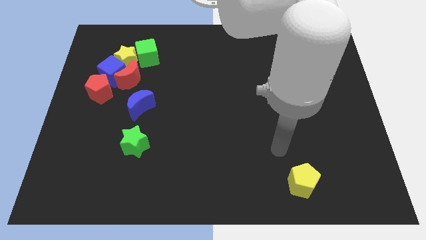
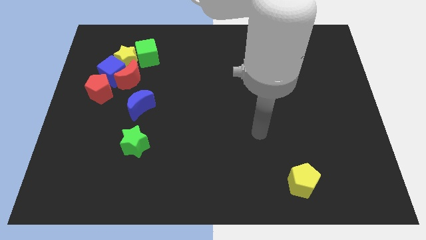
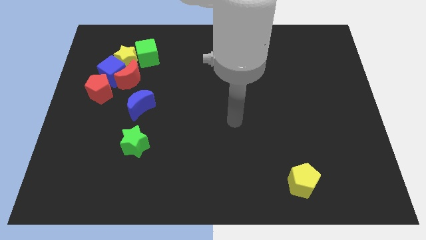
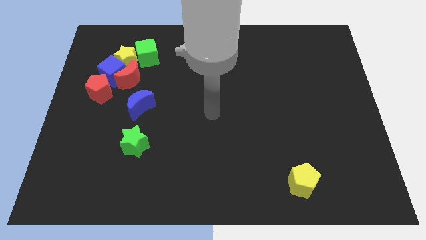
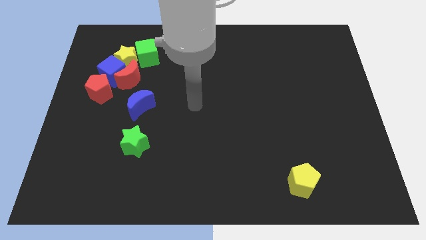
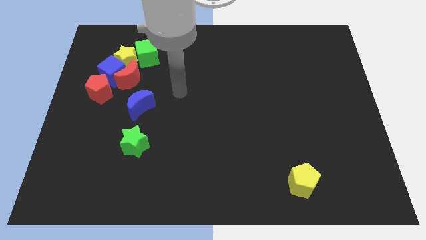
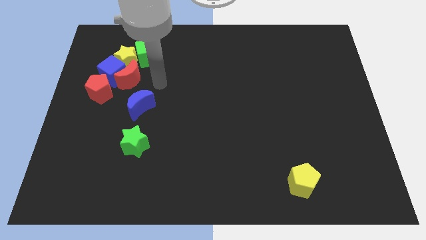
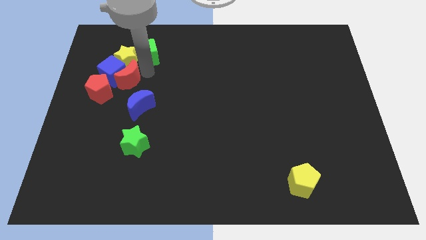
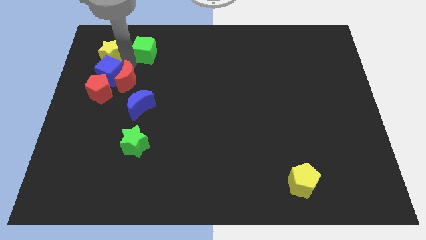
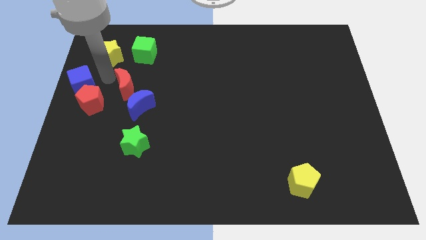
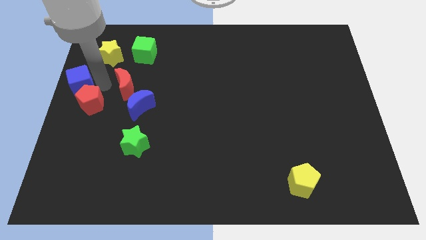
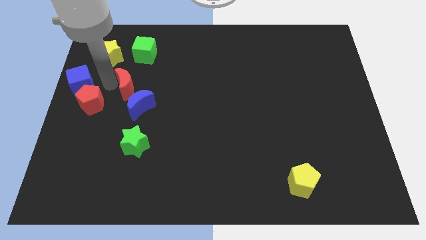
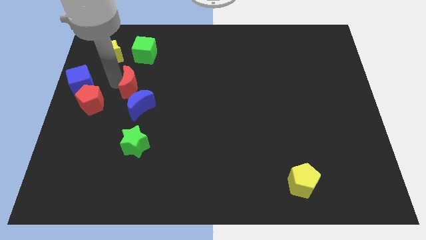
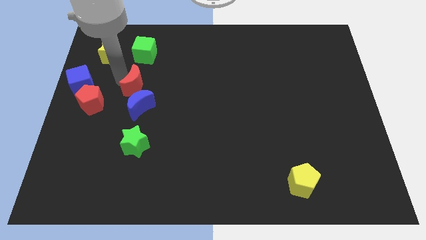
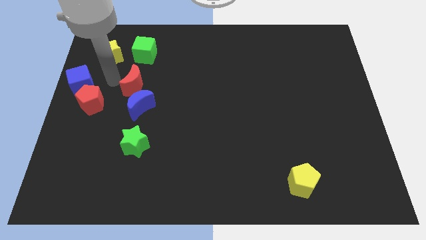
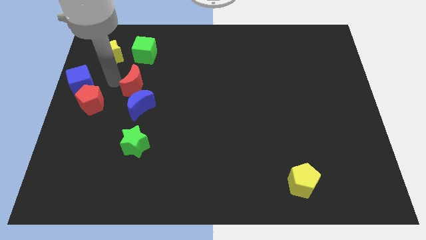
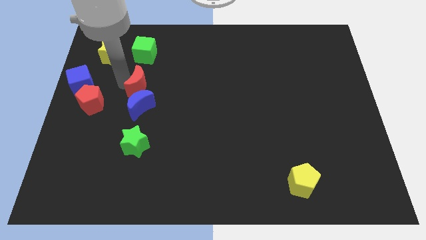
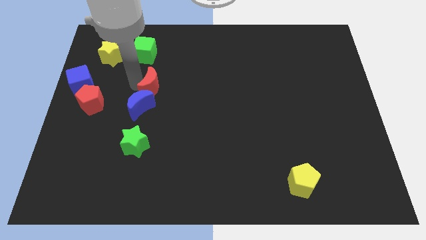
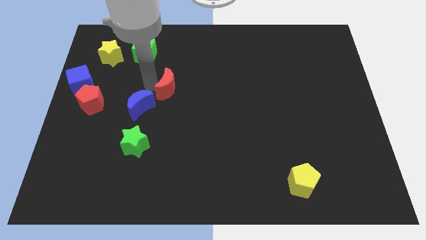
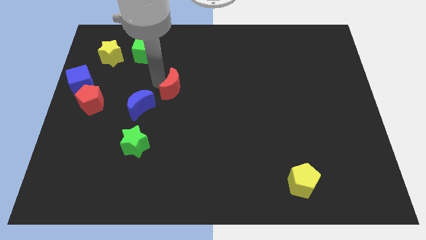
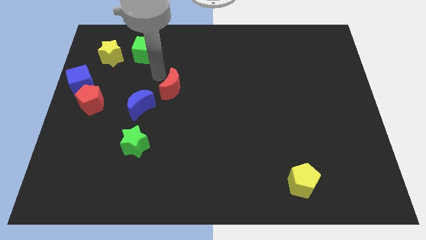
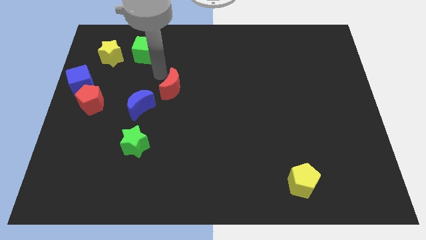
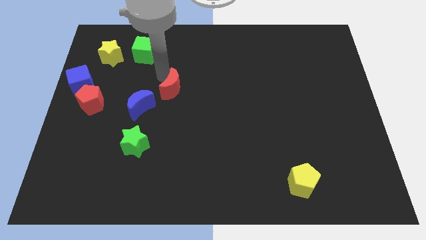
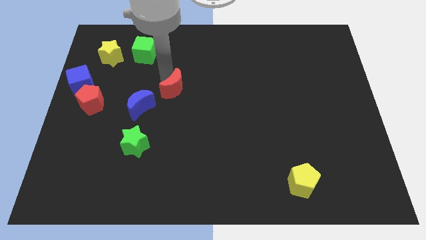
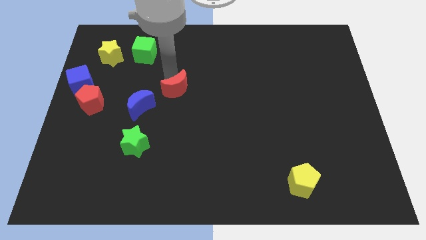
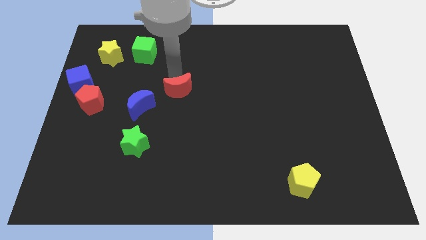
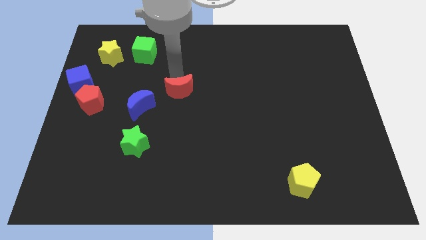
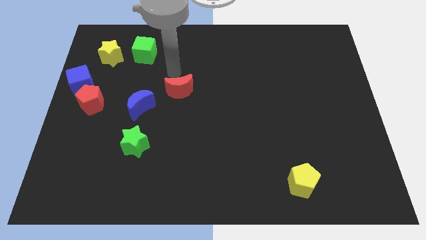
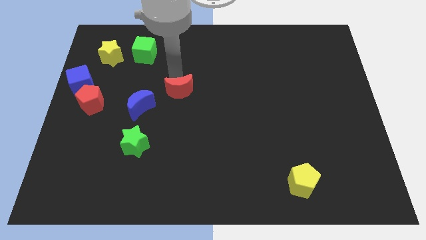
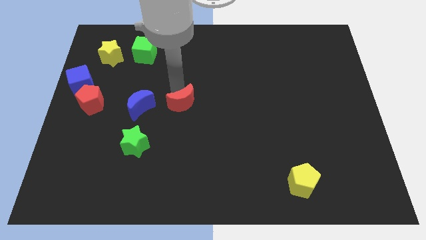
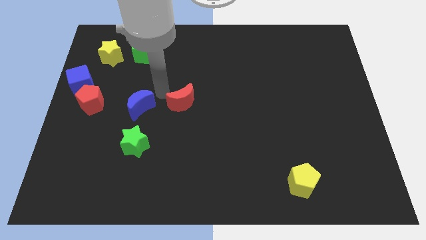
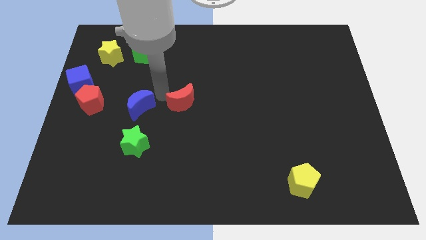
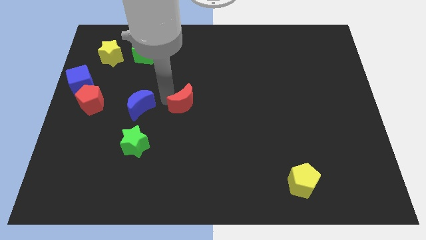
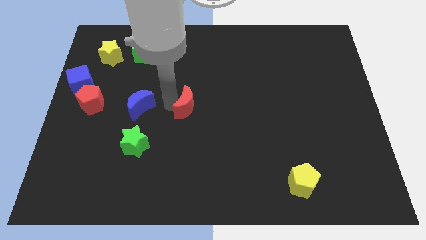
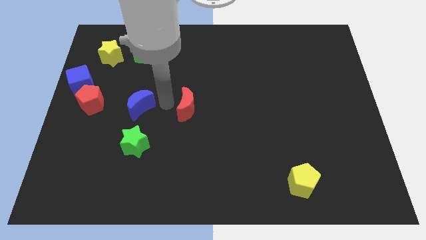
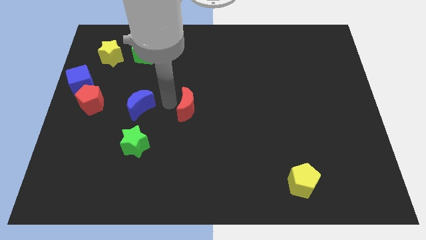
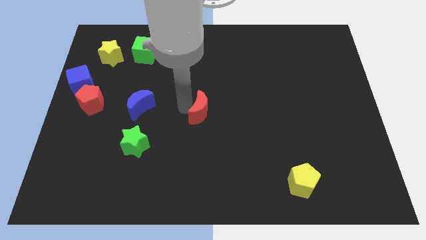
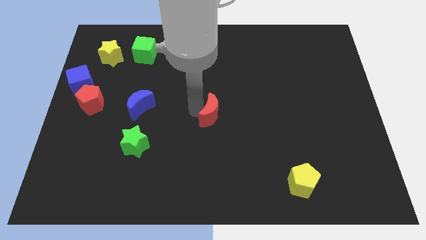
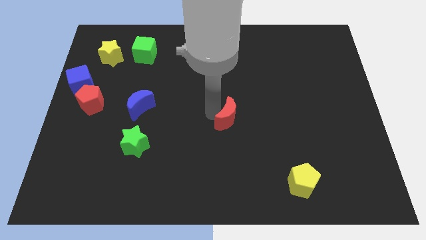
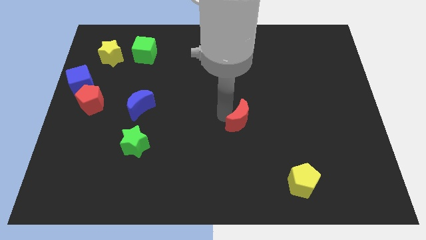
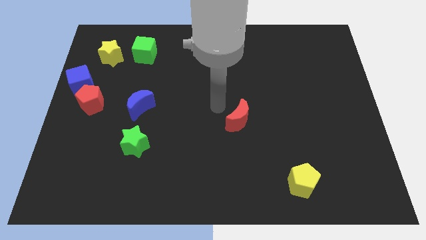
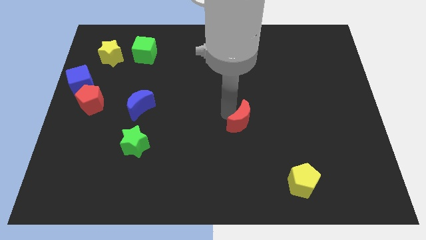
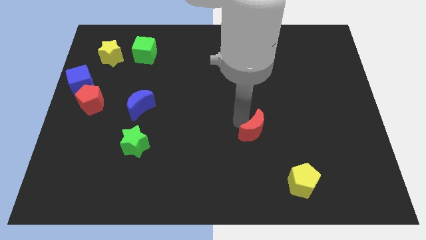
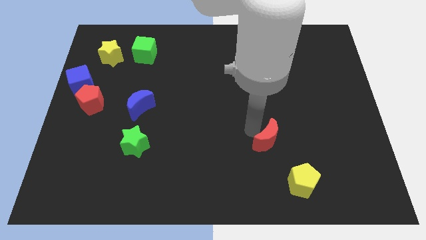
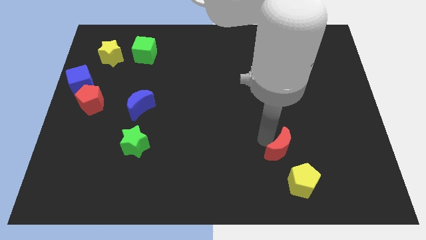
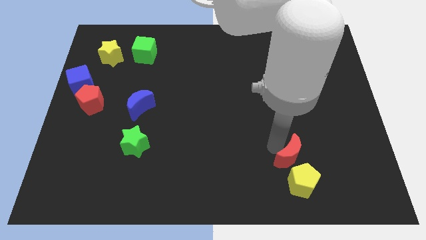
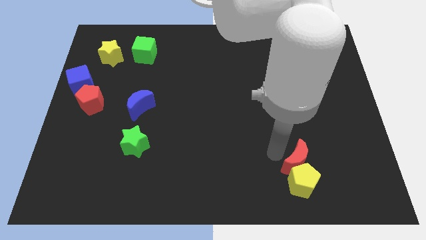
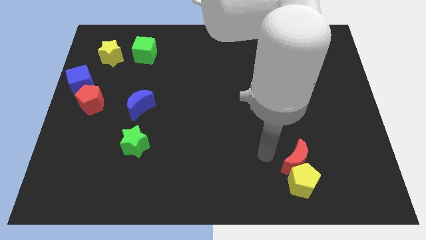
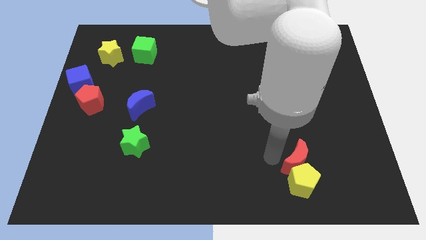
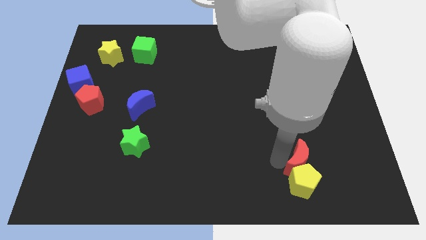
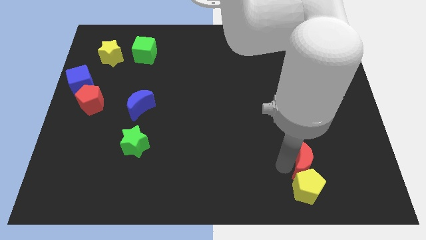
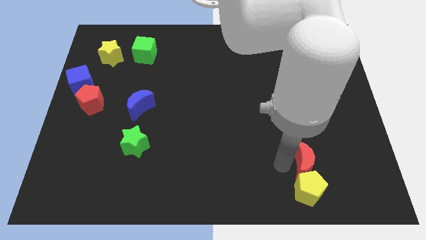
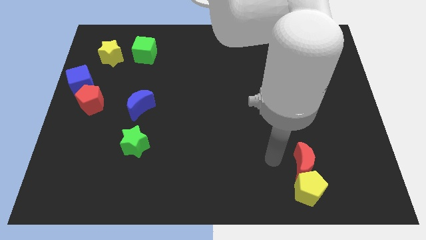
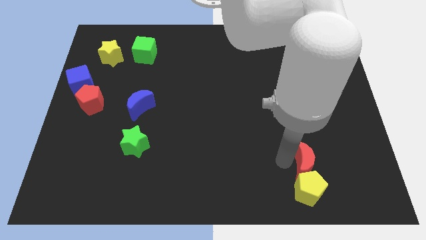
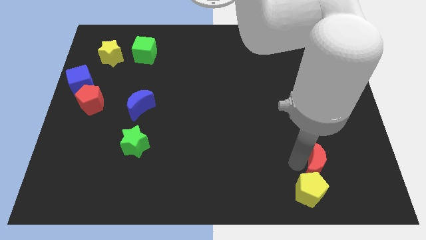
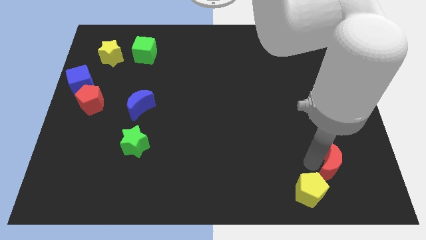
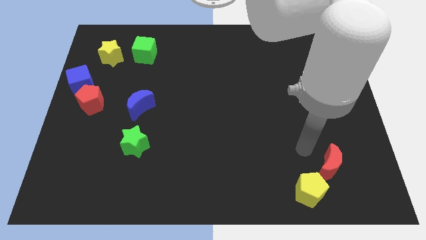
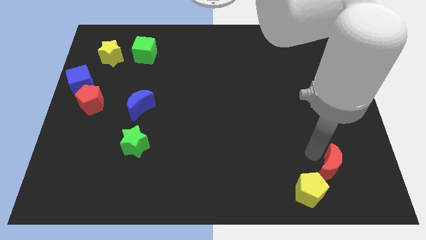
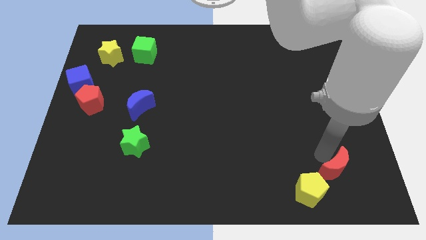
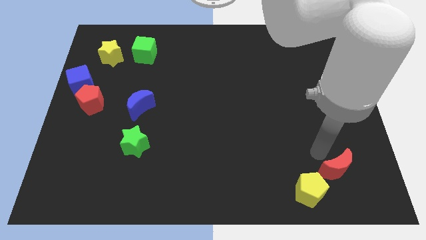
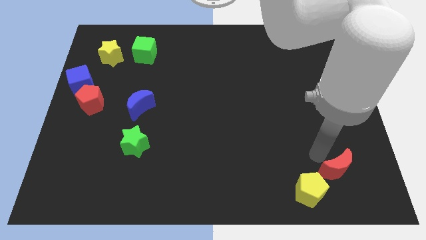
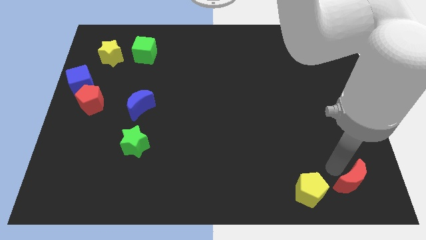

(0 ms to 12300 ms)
move the red moon to the bottom right
